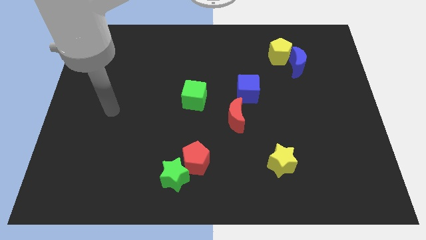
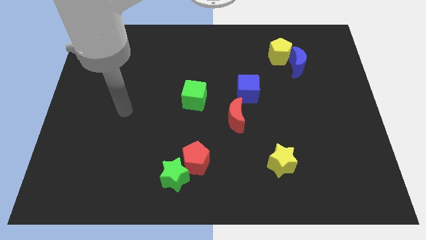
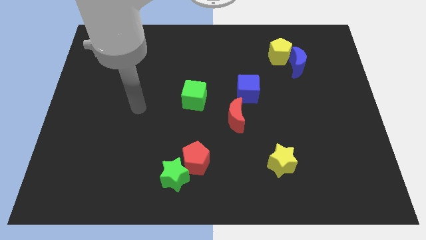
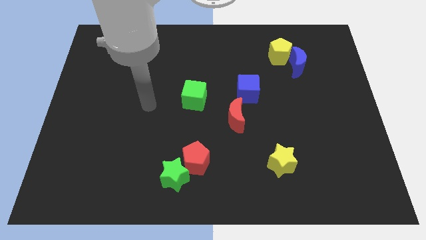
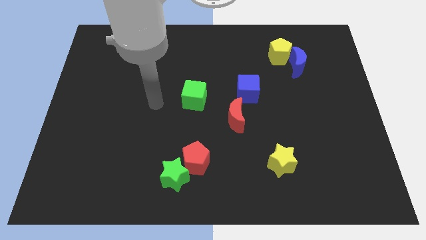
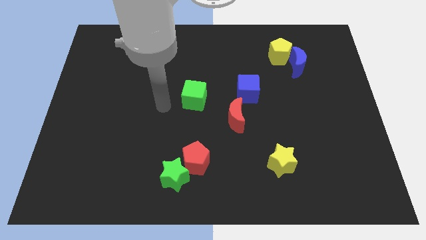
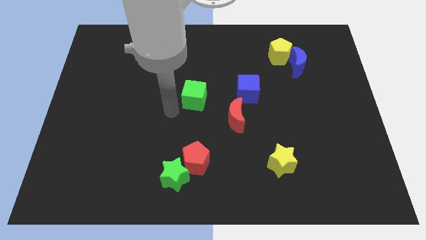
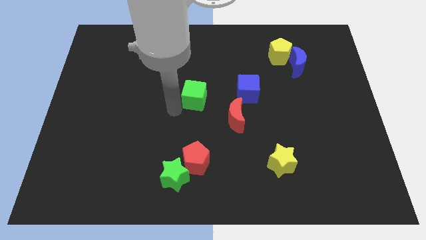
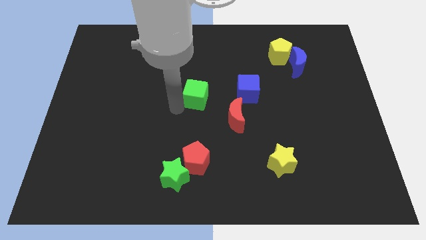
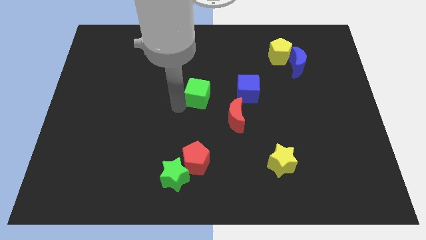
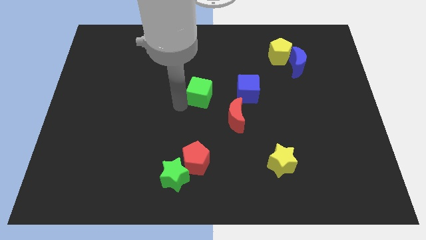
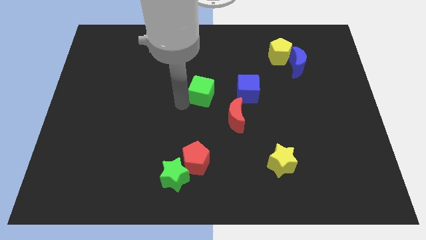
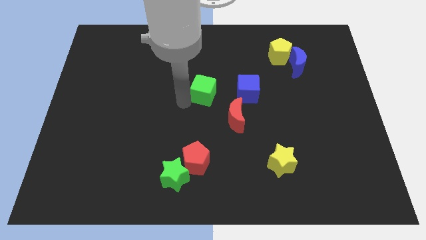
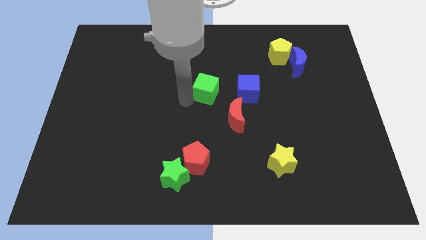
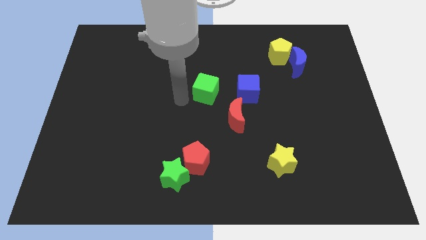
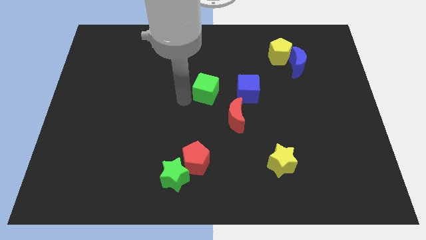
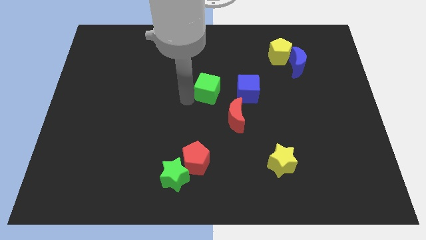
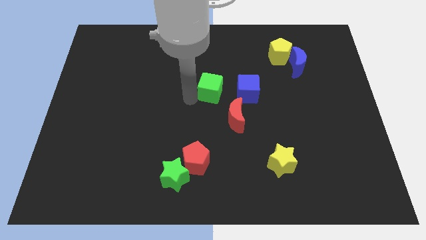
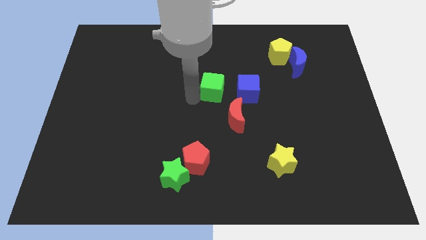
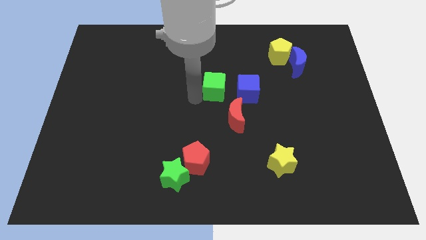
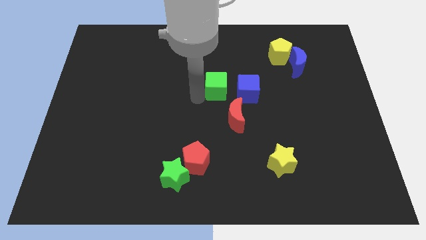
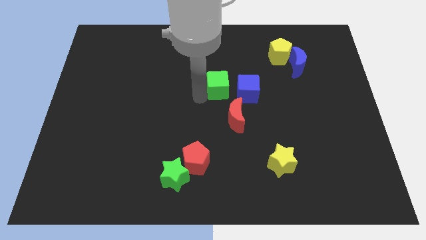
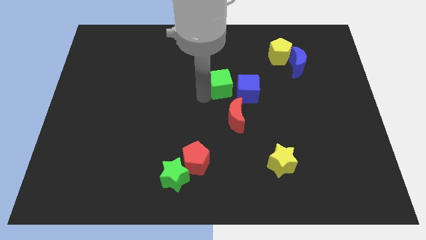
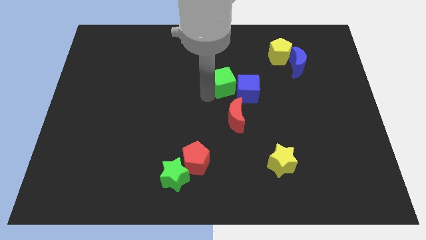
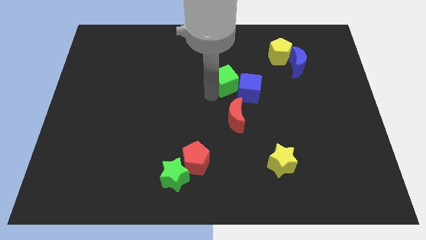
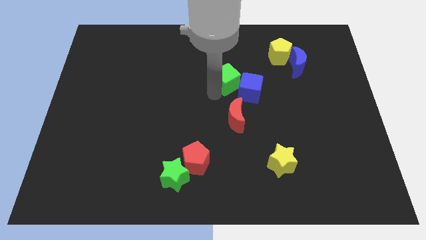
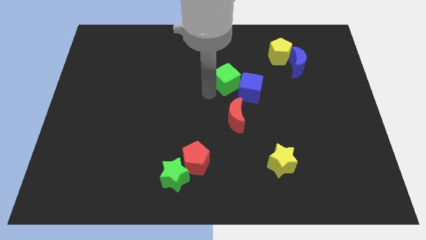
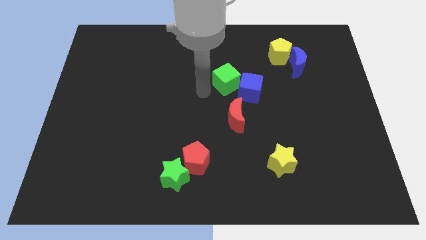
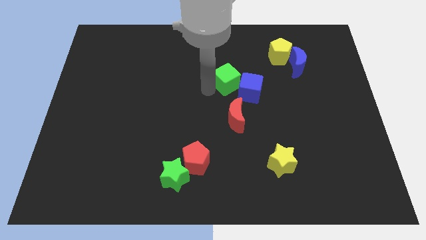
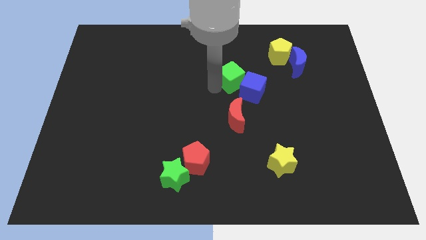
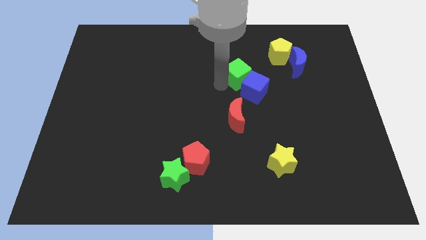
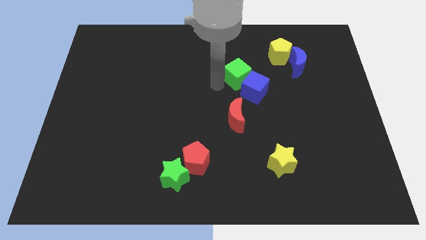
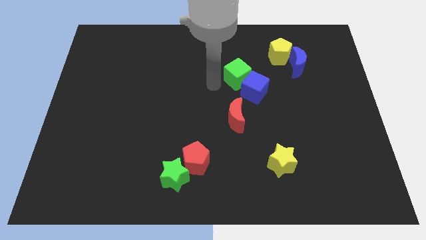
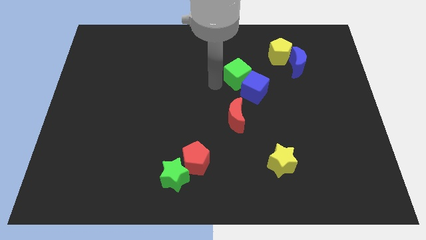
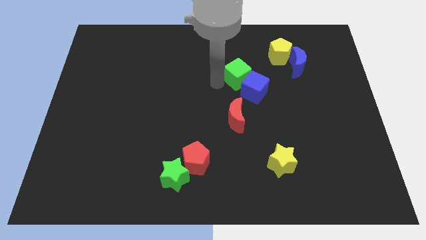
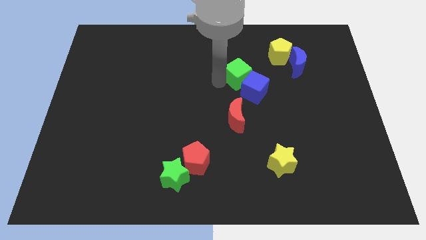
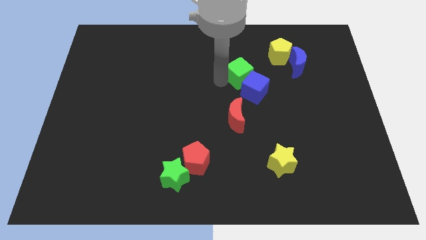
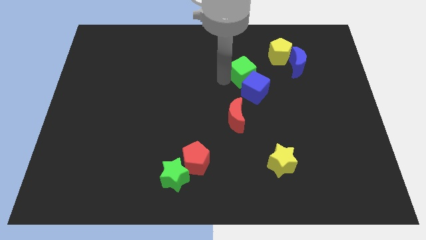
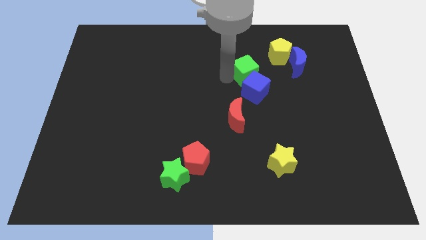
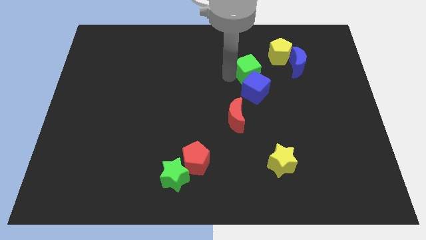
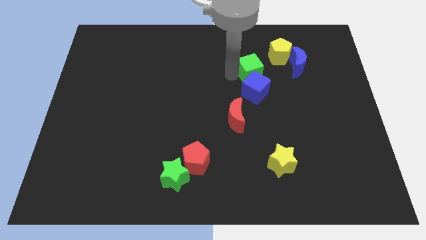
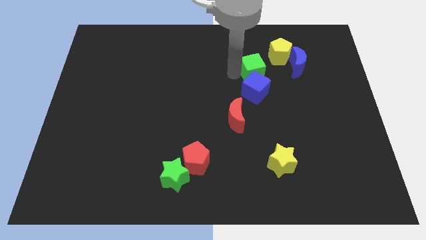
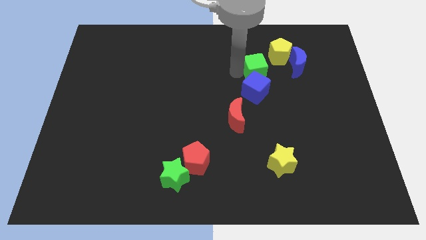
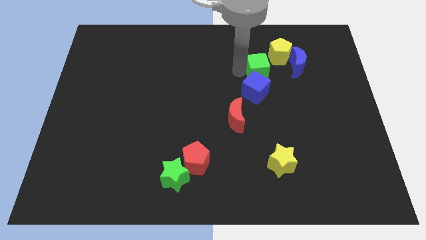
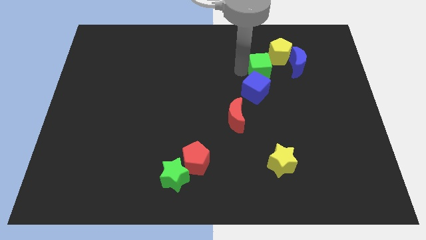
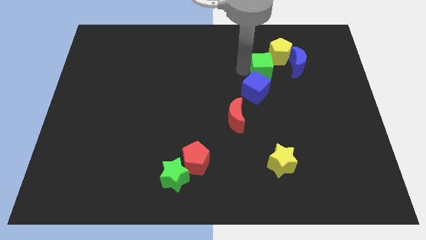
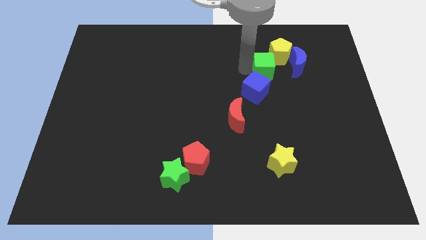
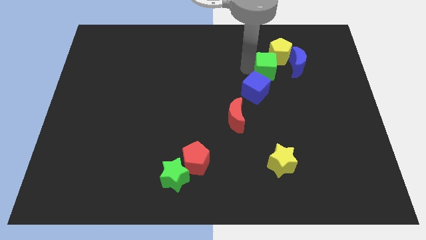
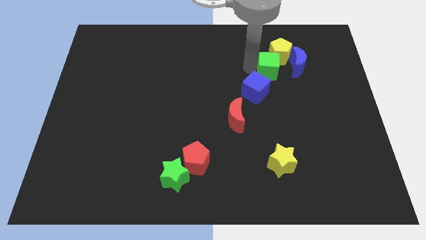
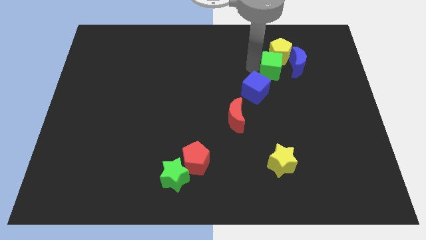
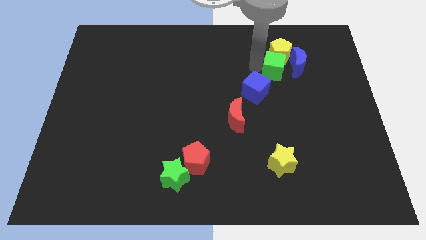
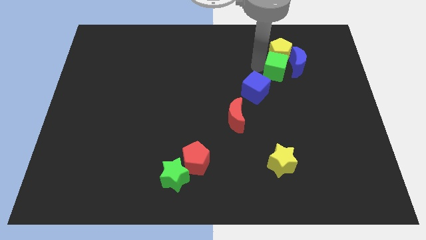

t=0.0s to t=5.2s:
push the green cube to the bottom right of the yellow pentagon

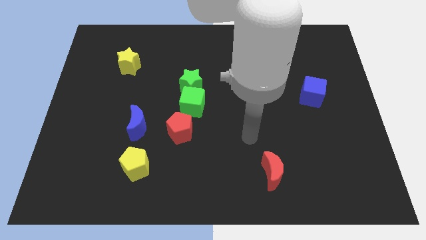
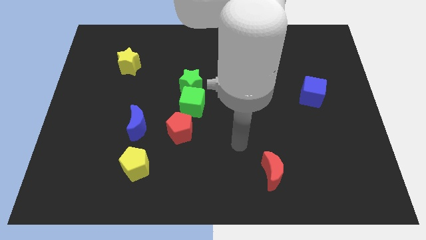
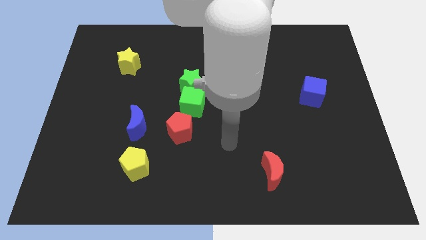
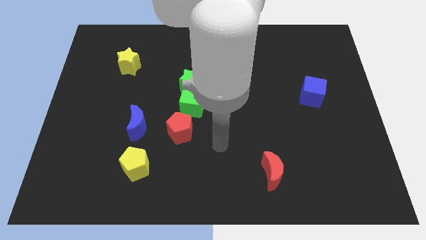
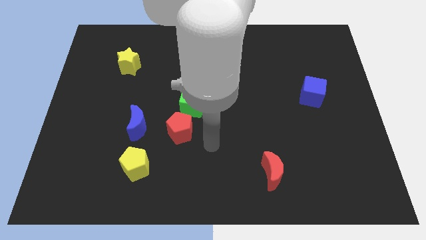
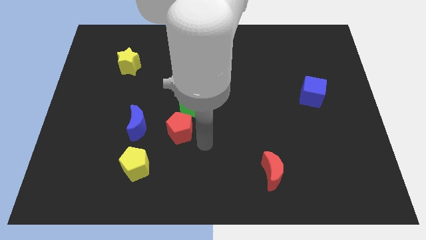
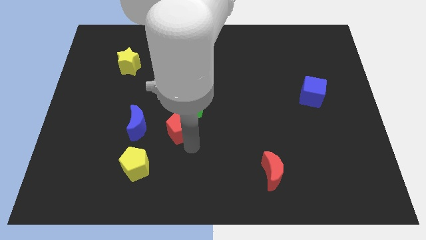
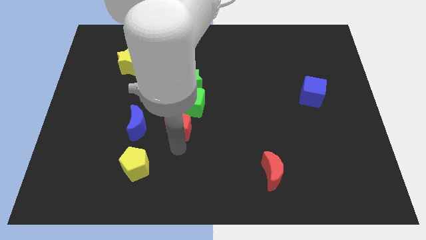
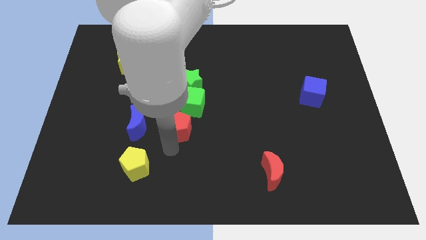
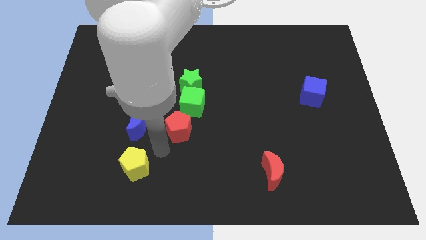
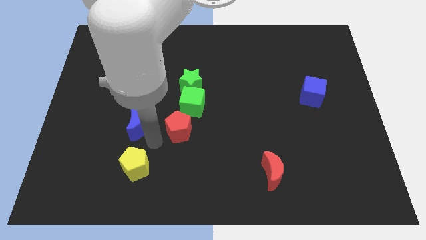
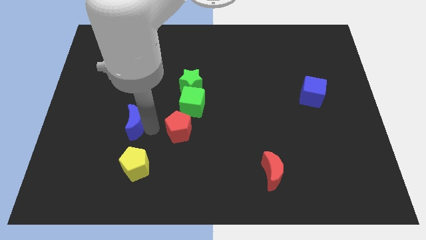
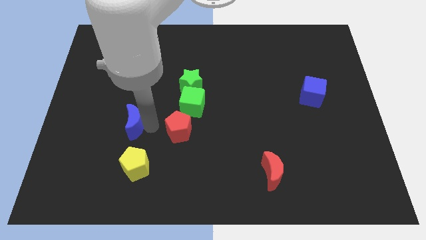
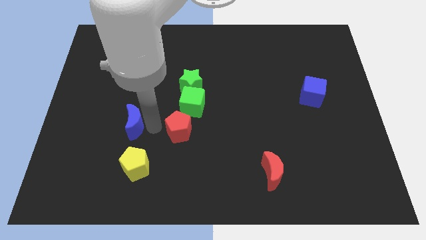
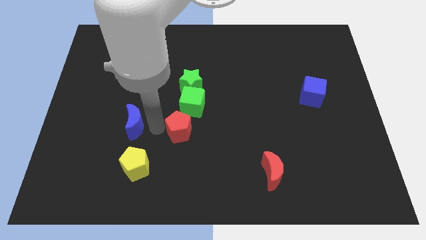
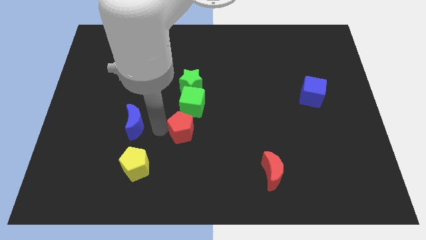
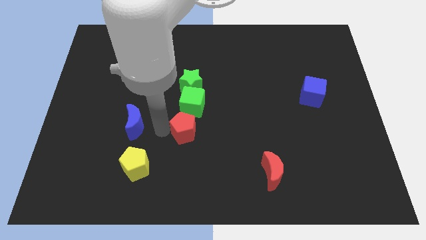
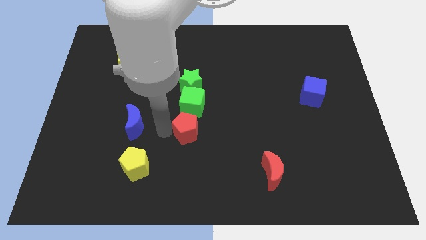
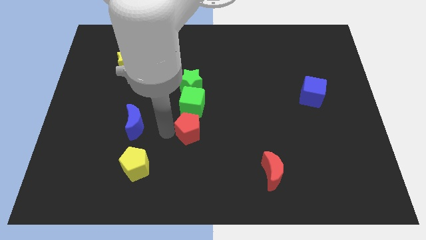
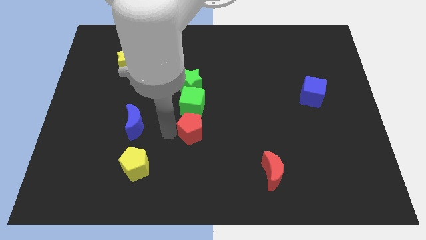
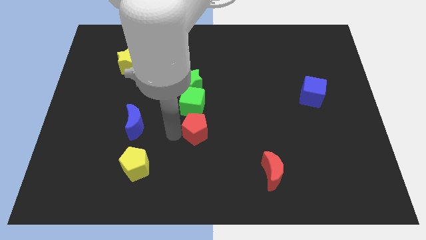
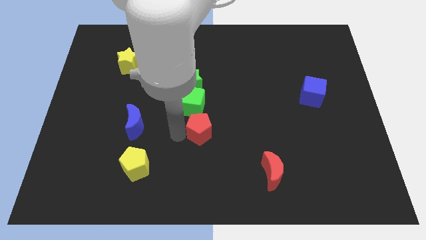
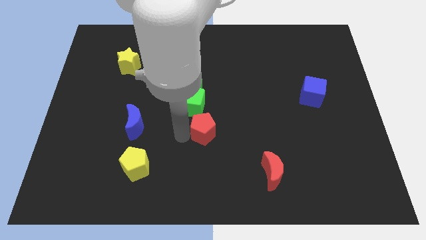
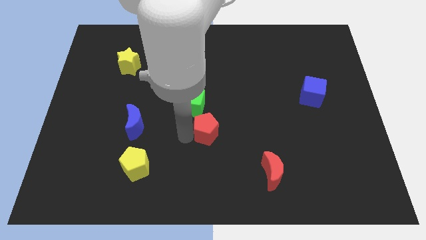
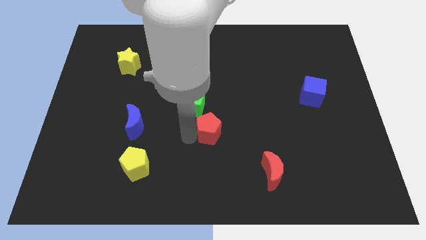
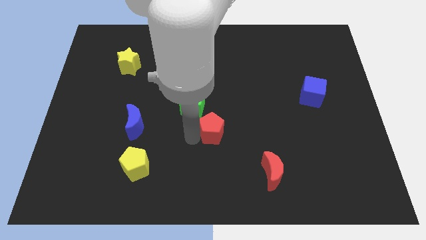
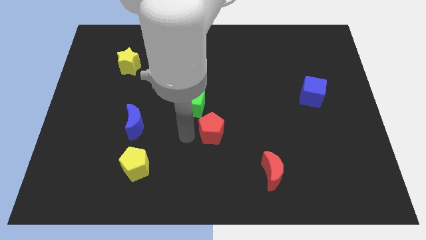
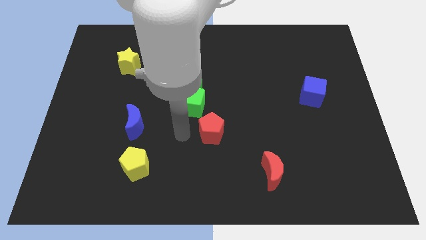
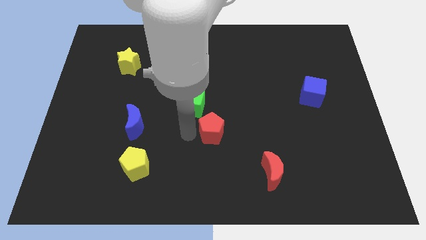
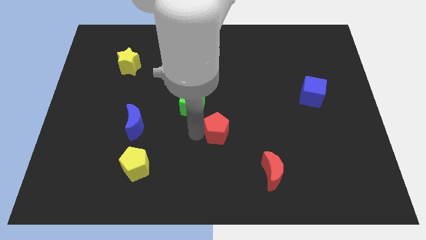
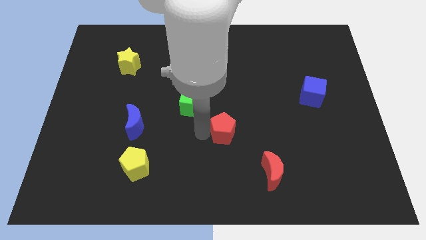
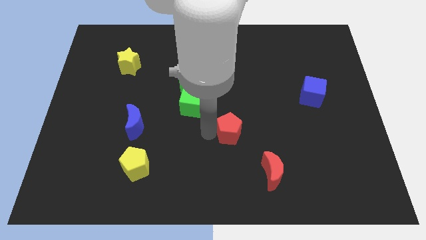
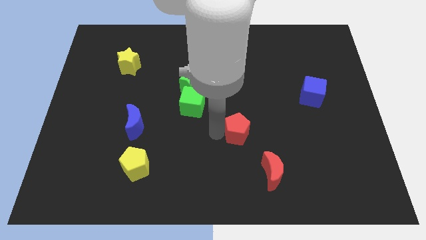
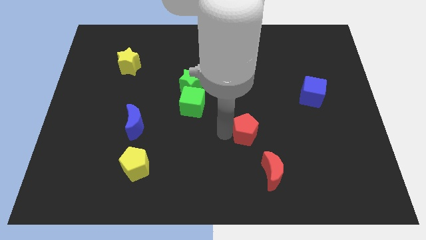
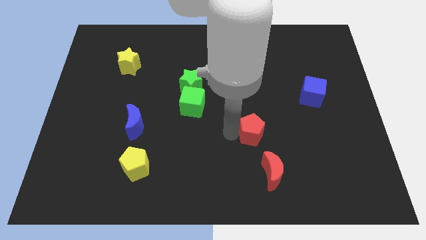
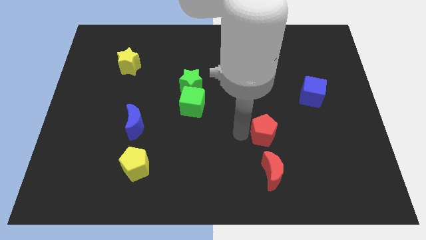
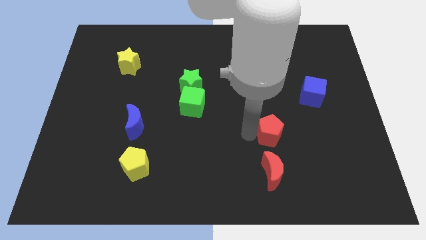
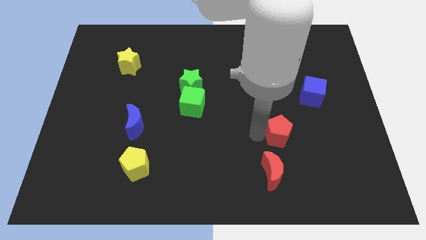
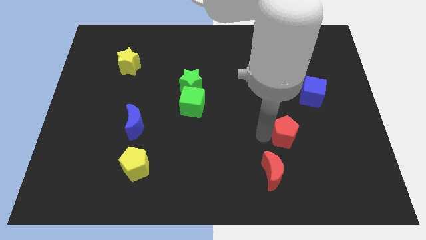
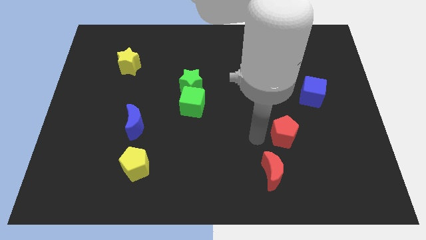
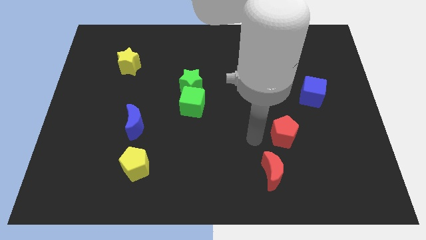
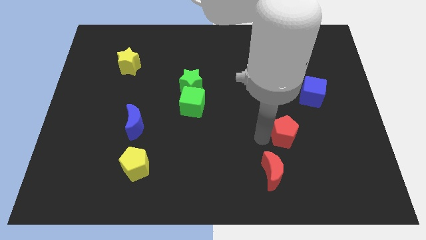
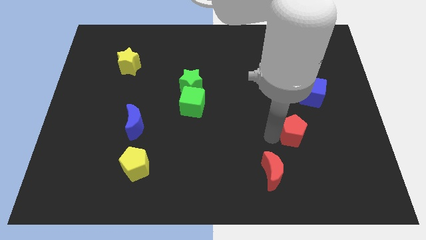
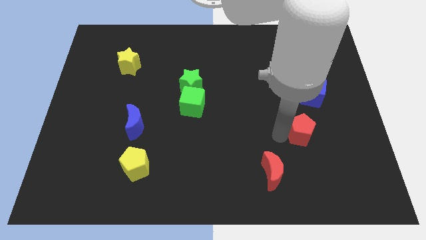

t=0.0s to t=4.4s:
move the red pentagon to the bottom side of the blue cube
